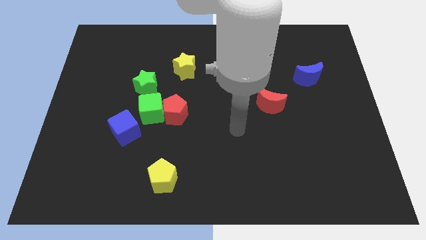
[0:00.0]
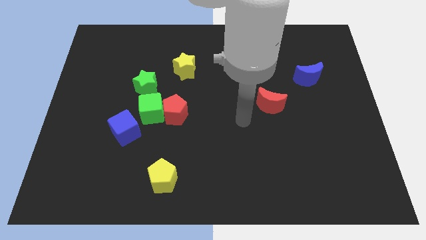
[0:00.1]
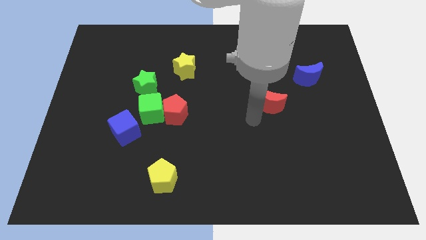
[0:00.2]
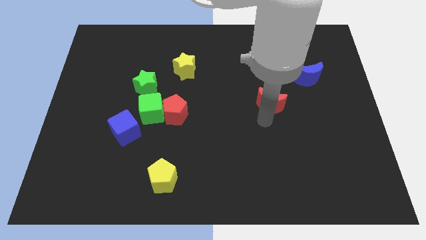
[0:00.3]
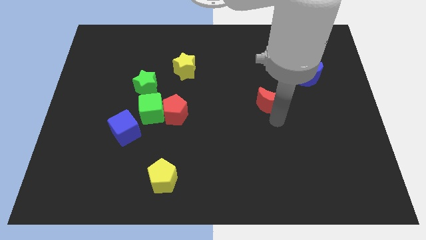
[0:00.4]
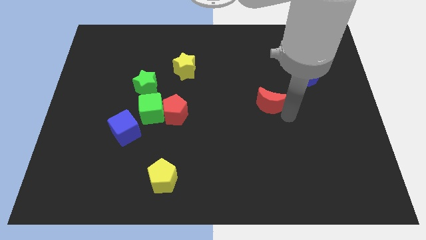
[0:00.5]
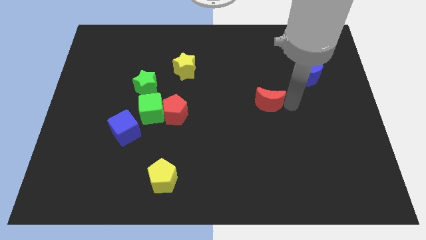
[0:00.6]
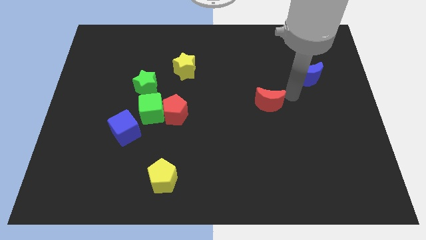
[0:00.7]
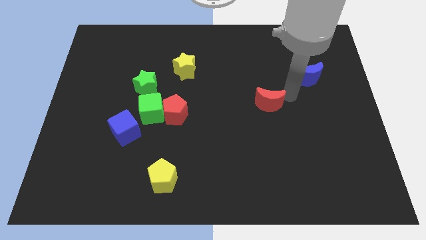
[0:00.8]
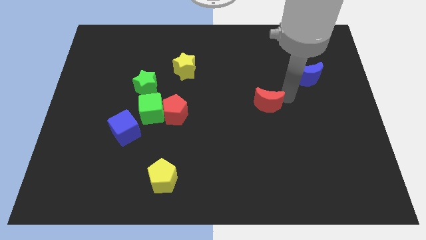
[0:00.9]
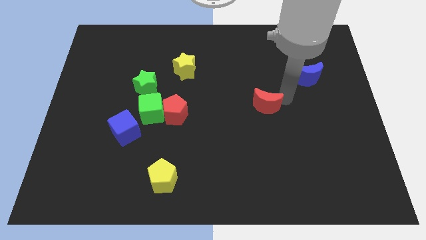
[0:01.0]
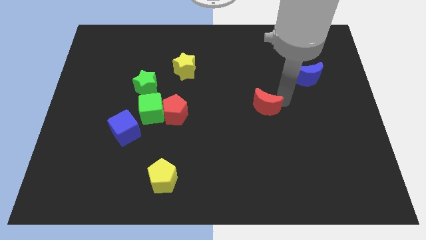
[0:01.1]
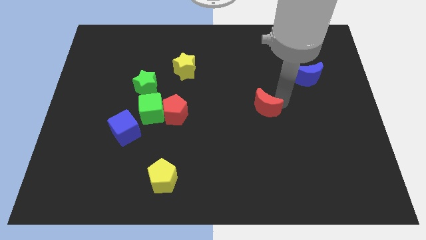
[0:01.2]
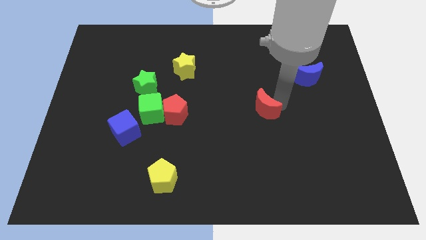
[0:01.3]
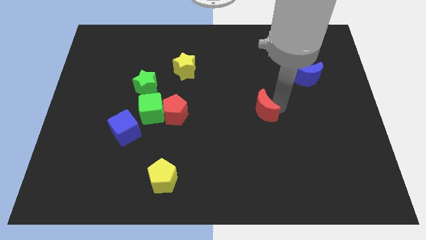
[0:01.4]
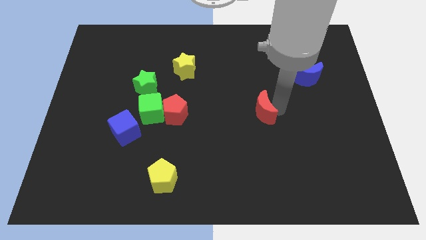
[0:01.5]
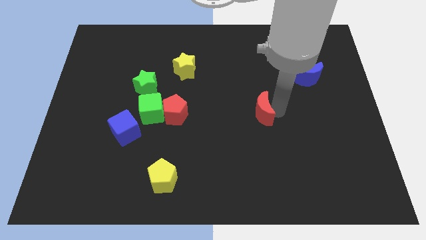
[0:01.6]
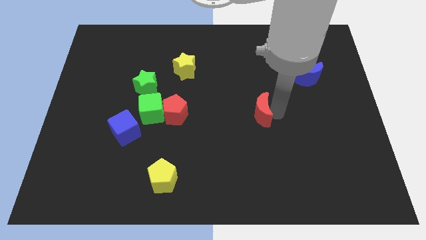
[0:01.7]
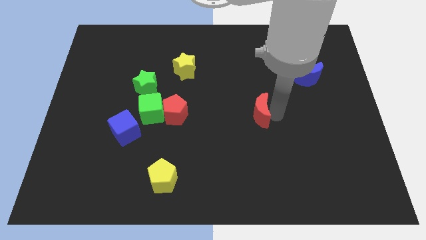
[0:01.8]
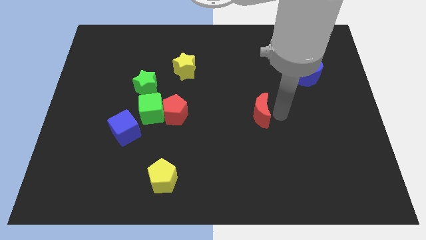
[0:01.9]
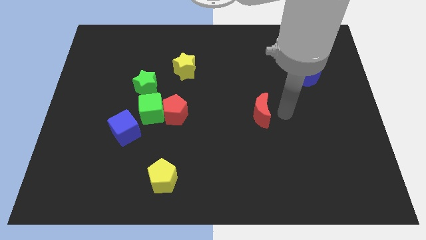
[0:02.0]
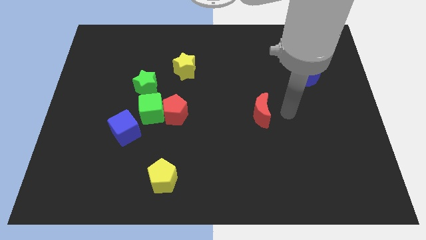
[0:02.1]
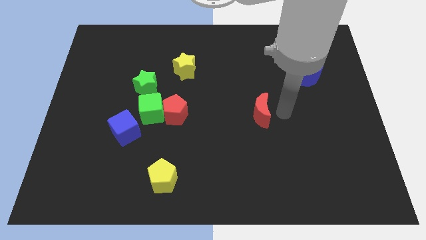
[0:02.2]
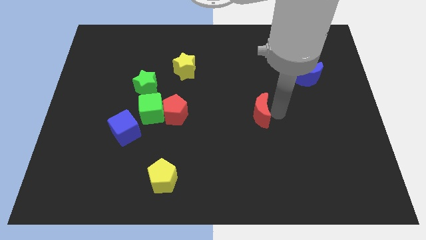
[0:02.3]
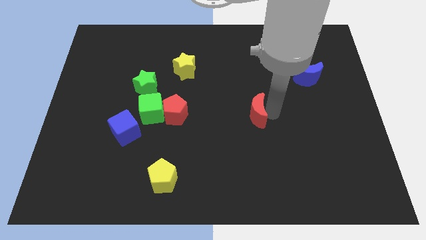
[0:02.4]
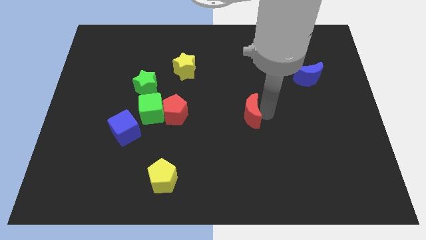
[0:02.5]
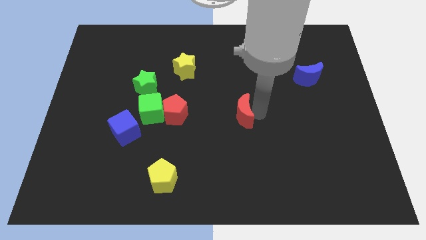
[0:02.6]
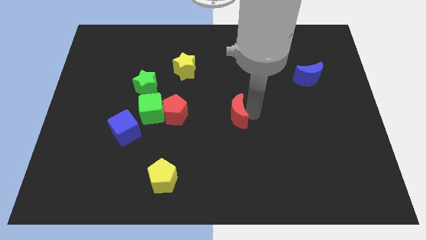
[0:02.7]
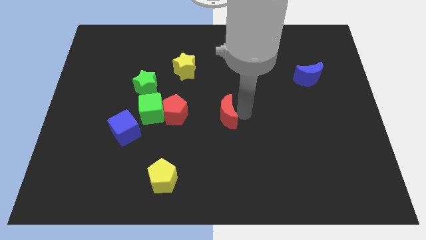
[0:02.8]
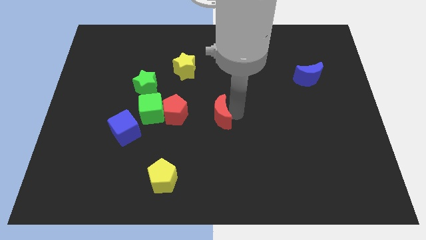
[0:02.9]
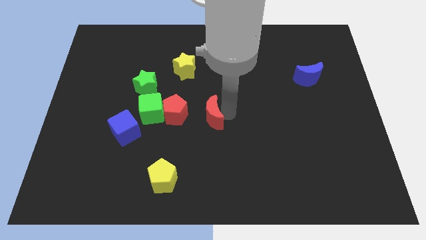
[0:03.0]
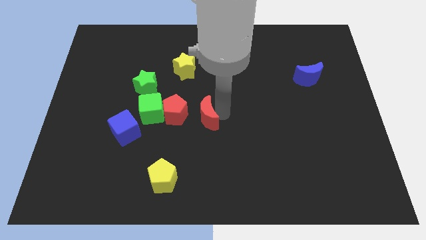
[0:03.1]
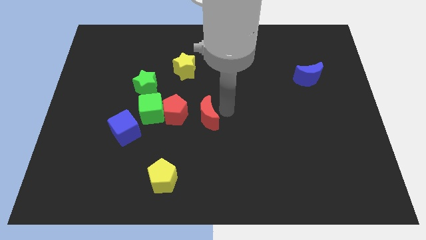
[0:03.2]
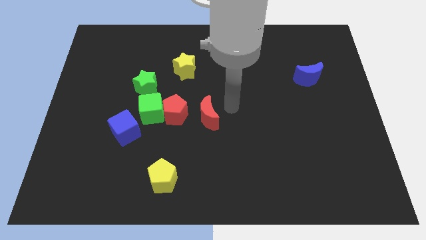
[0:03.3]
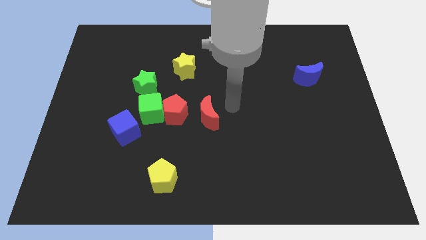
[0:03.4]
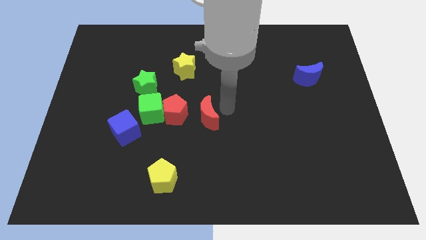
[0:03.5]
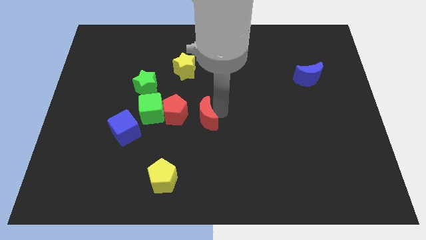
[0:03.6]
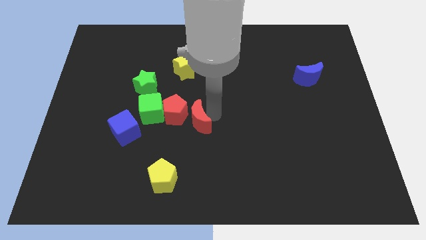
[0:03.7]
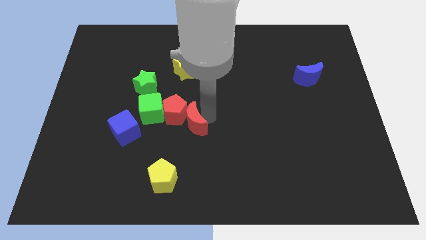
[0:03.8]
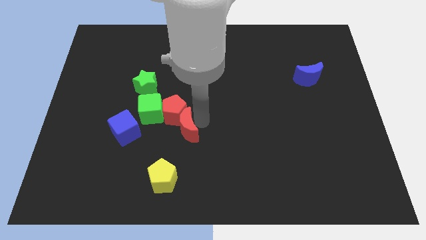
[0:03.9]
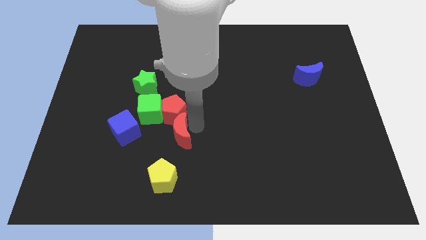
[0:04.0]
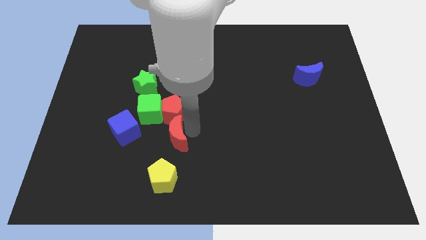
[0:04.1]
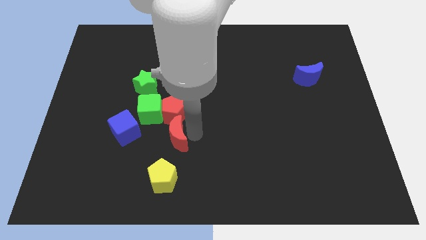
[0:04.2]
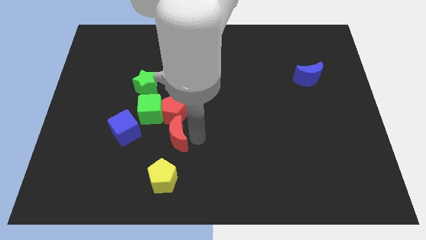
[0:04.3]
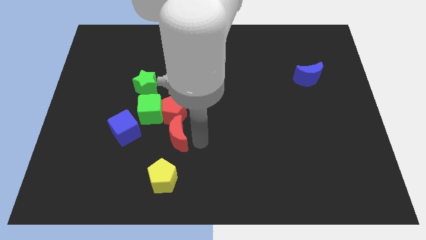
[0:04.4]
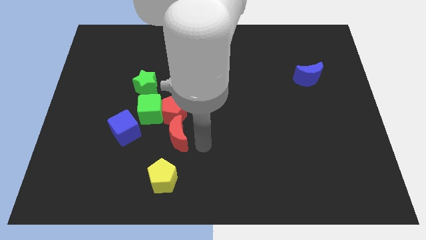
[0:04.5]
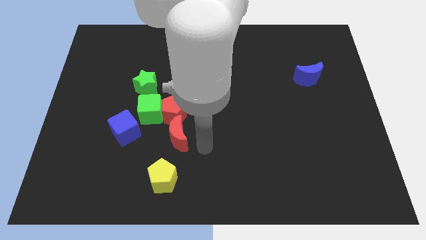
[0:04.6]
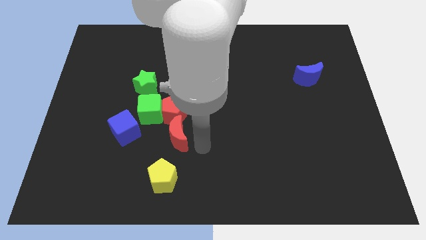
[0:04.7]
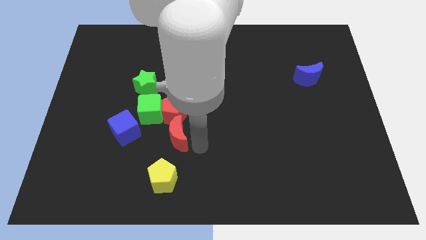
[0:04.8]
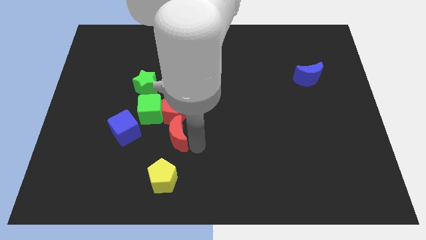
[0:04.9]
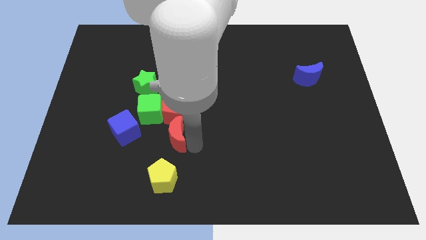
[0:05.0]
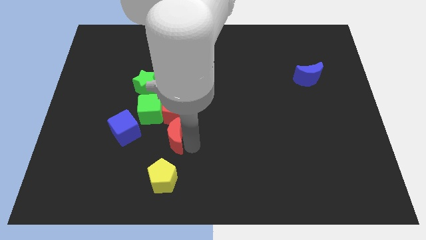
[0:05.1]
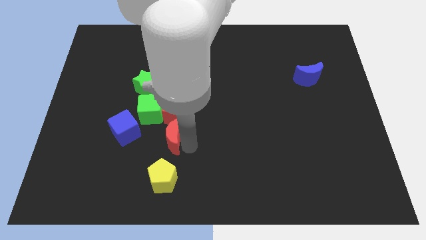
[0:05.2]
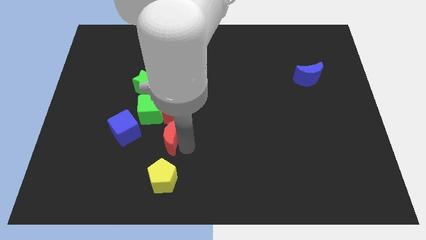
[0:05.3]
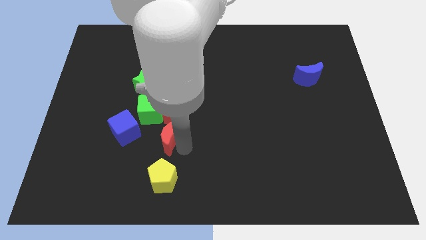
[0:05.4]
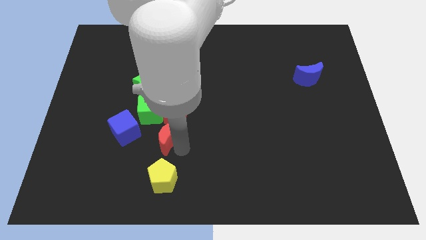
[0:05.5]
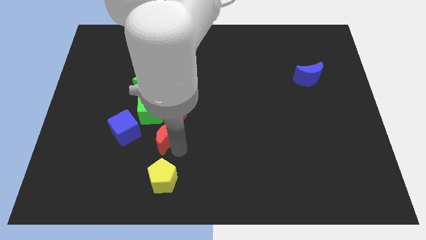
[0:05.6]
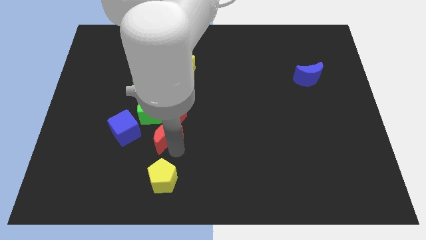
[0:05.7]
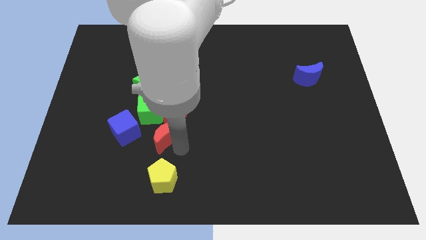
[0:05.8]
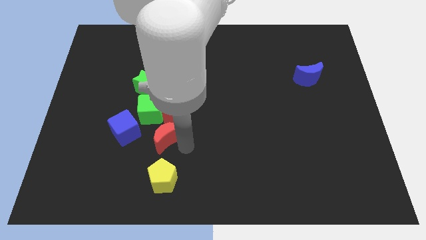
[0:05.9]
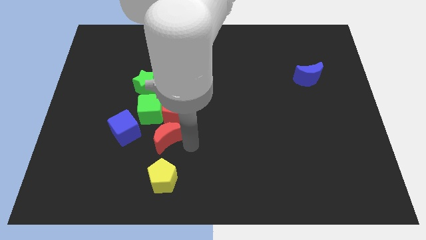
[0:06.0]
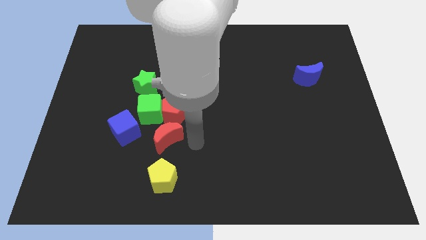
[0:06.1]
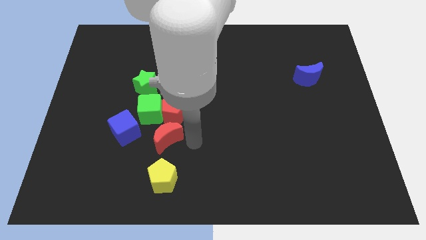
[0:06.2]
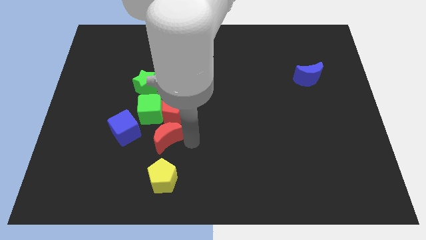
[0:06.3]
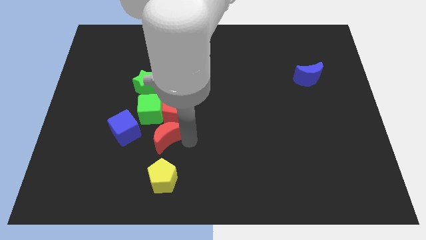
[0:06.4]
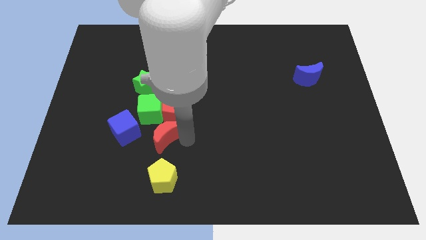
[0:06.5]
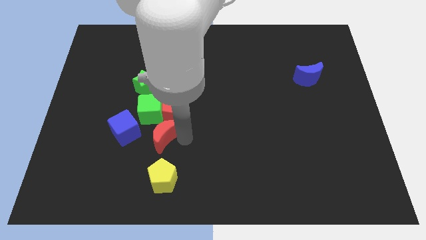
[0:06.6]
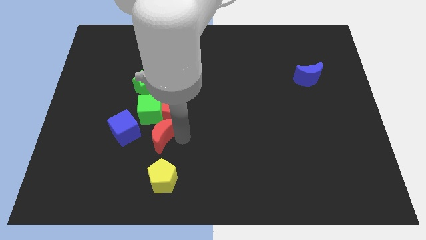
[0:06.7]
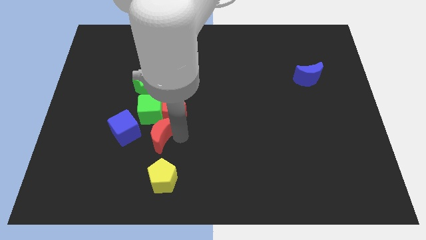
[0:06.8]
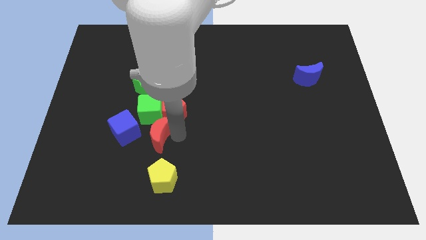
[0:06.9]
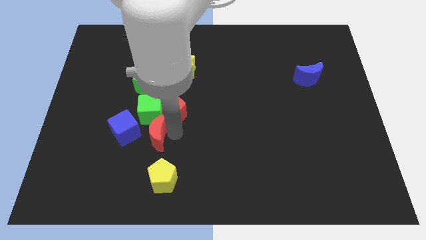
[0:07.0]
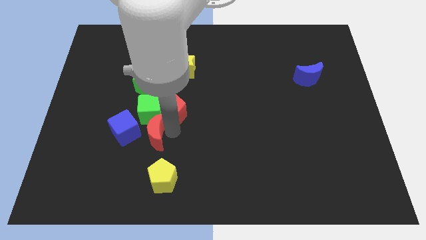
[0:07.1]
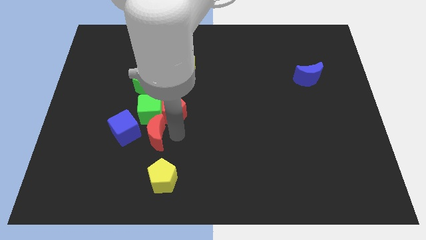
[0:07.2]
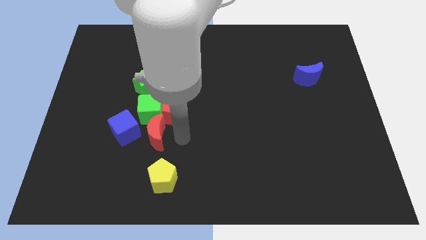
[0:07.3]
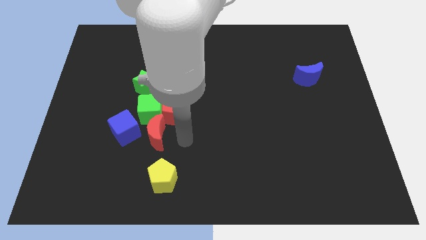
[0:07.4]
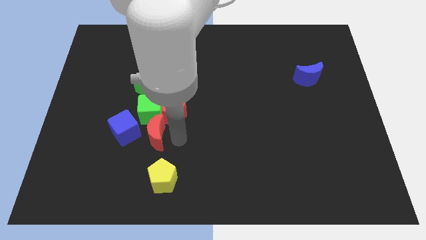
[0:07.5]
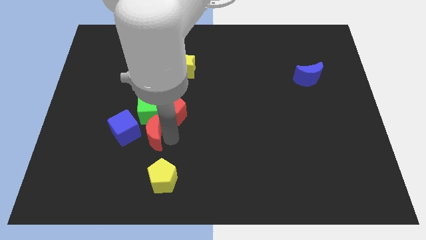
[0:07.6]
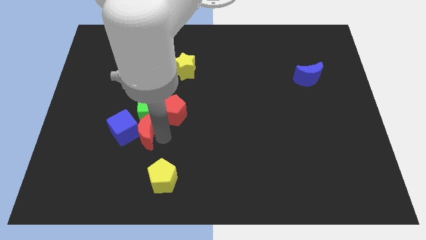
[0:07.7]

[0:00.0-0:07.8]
push the red moon next to the blue cube
